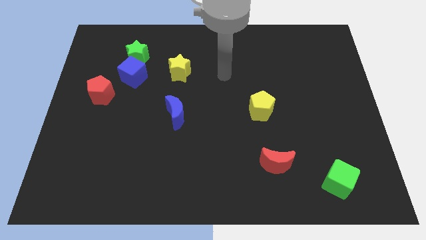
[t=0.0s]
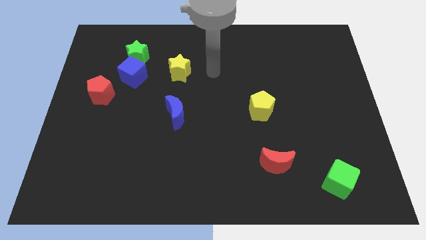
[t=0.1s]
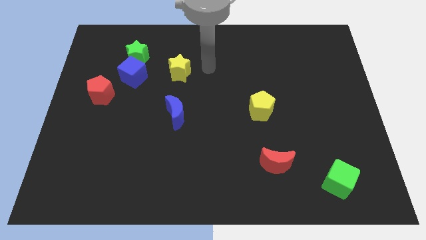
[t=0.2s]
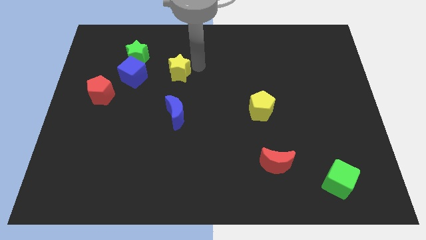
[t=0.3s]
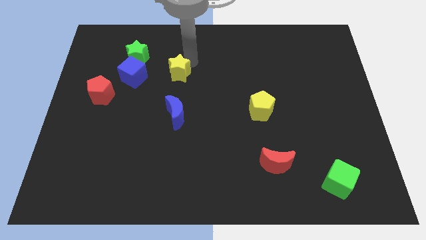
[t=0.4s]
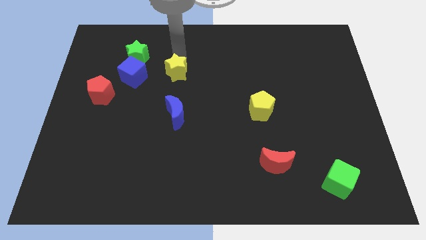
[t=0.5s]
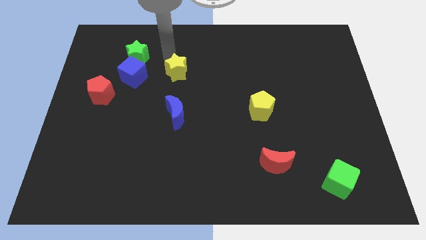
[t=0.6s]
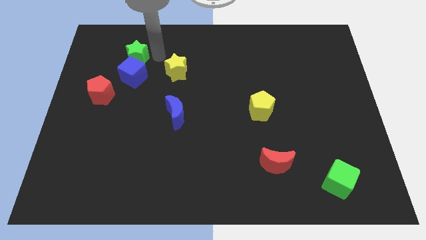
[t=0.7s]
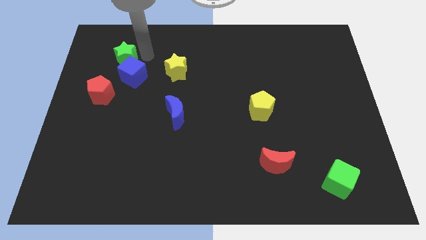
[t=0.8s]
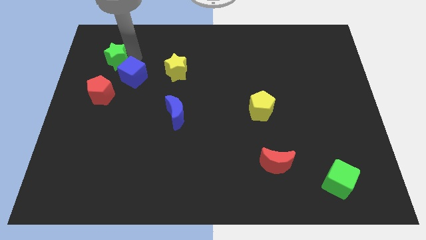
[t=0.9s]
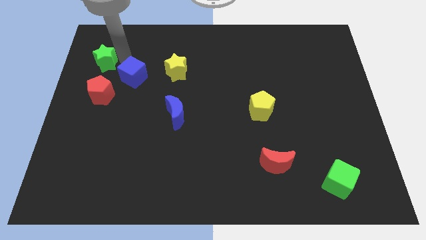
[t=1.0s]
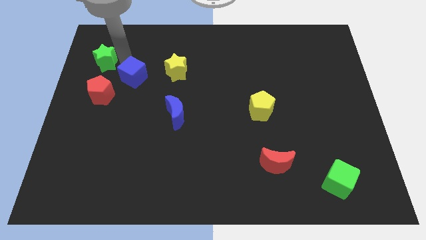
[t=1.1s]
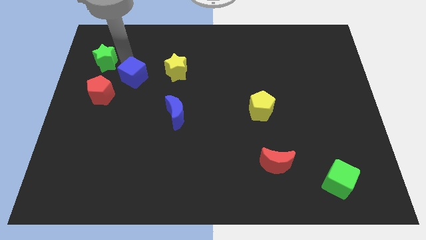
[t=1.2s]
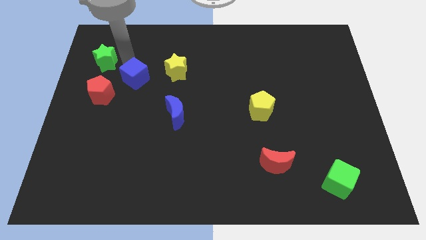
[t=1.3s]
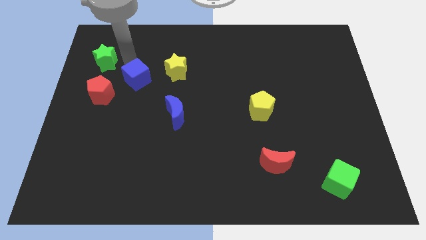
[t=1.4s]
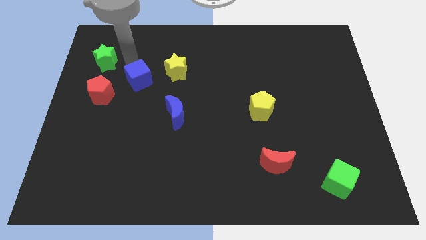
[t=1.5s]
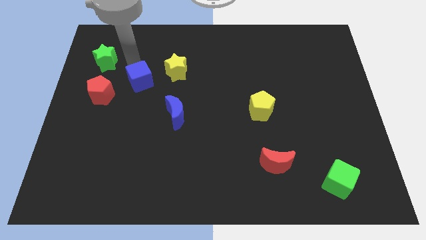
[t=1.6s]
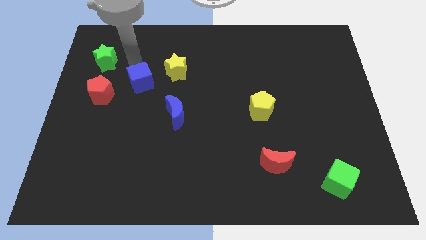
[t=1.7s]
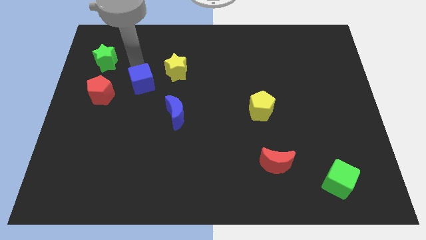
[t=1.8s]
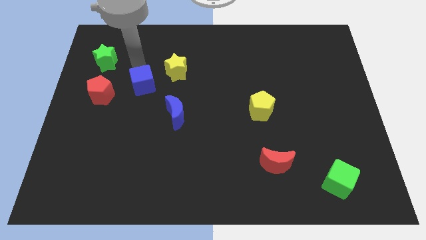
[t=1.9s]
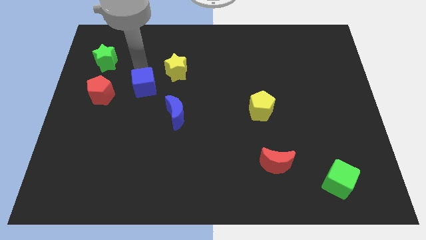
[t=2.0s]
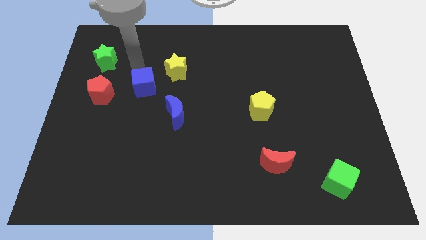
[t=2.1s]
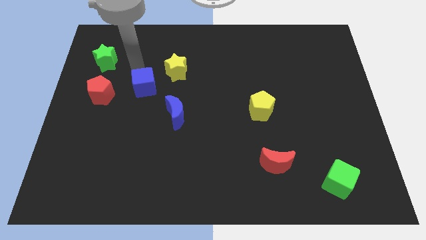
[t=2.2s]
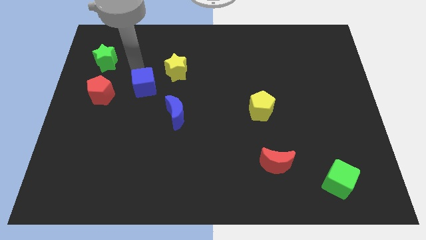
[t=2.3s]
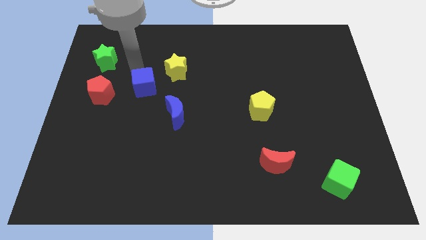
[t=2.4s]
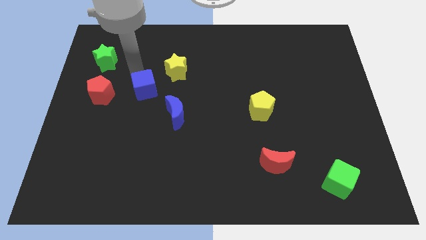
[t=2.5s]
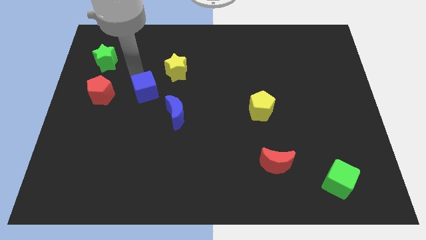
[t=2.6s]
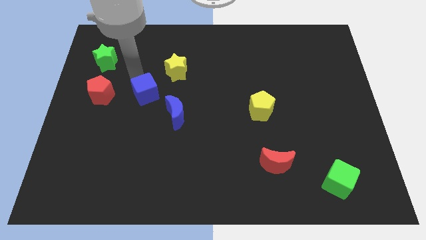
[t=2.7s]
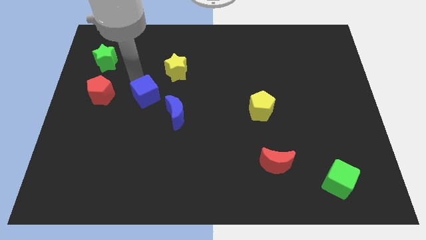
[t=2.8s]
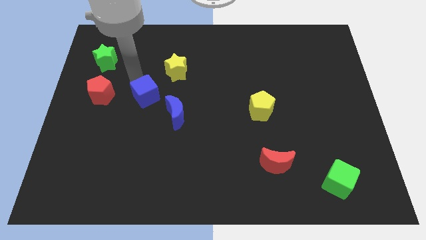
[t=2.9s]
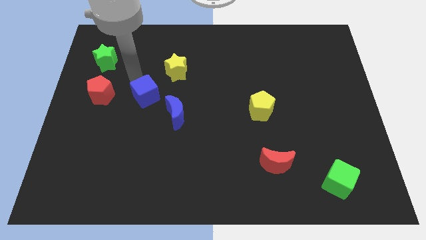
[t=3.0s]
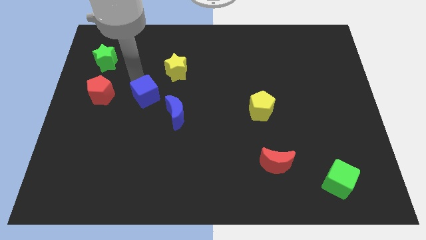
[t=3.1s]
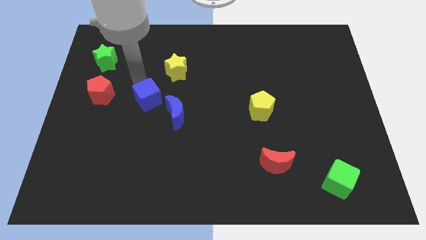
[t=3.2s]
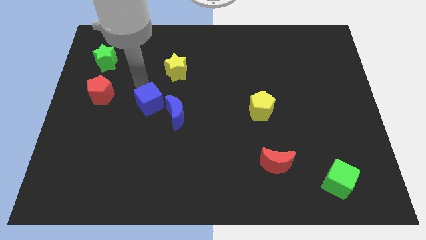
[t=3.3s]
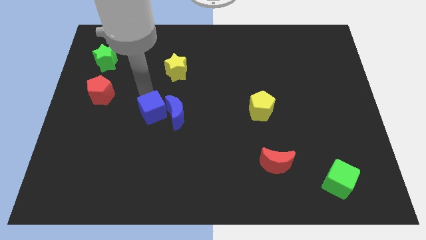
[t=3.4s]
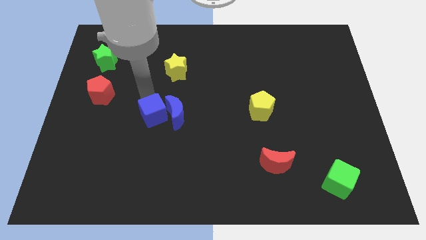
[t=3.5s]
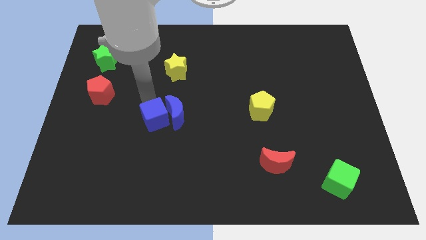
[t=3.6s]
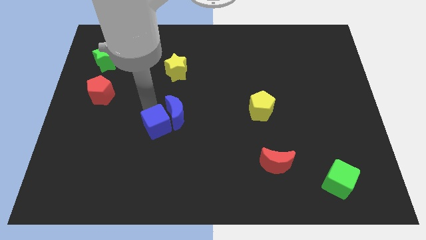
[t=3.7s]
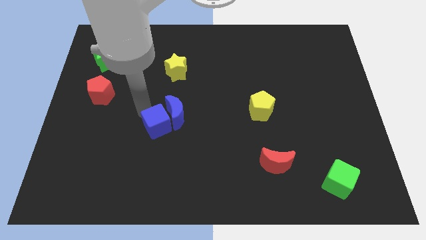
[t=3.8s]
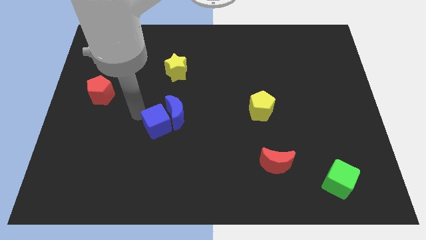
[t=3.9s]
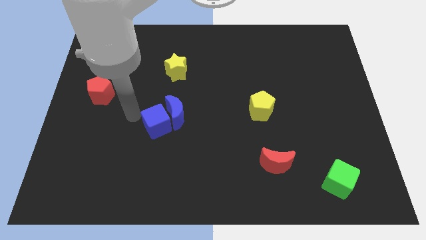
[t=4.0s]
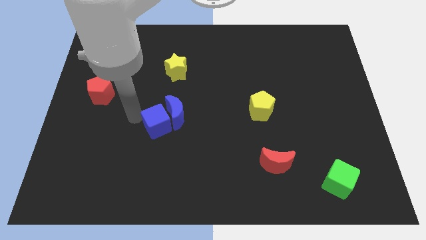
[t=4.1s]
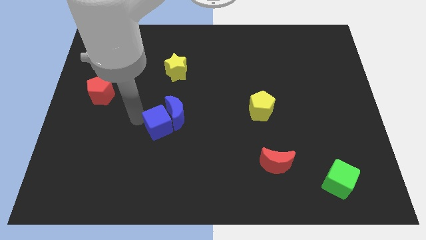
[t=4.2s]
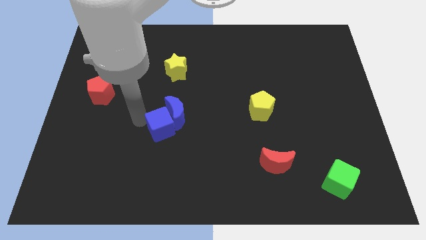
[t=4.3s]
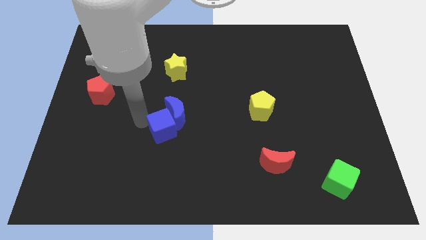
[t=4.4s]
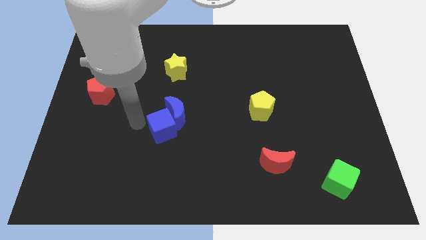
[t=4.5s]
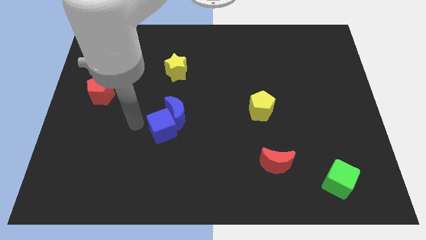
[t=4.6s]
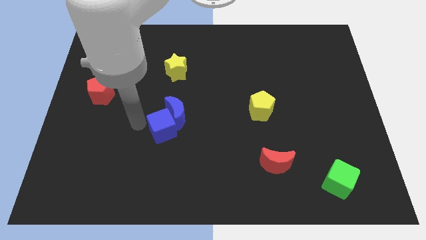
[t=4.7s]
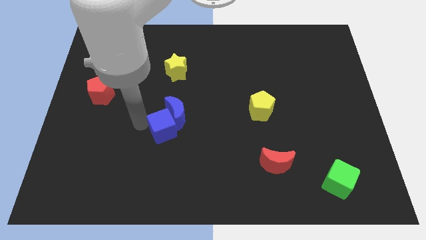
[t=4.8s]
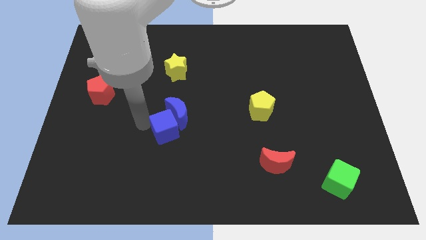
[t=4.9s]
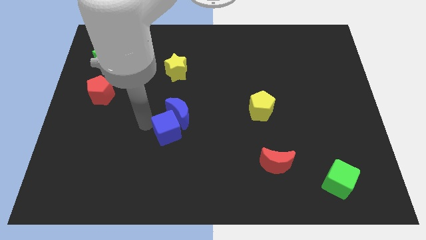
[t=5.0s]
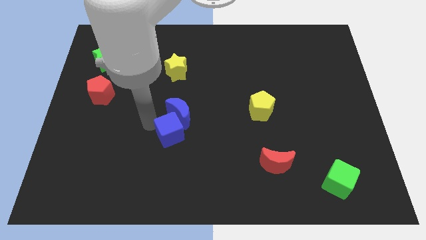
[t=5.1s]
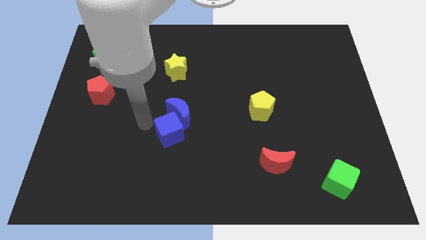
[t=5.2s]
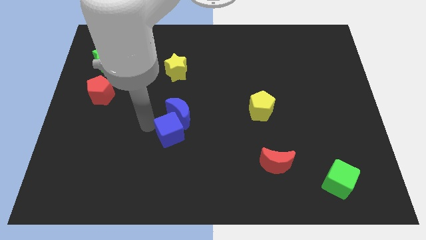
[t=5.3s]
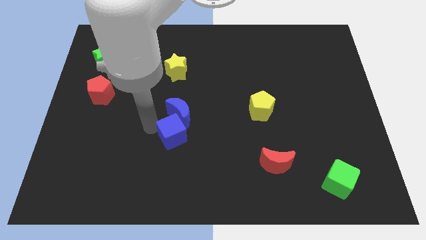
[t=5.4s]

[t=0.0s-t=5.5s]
push the blue cube diagonally downwards and to the right

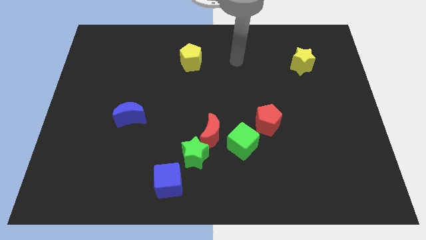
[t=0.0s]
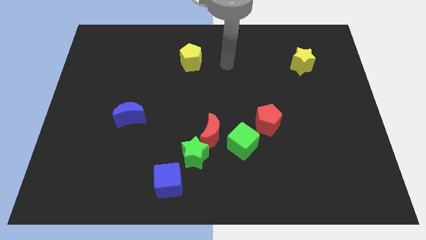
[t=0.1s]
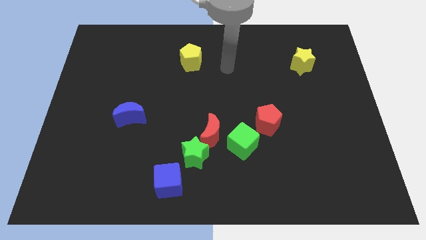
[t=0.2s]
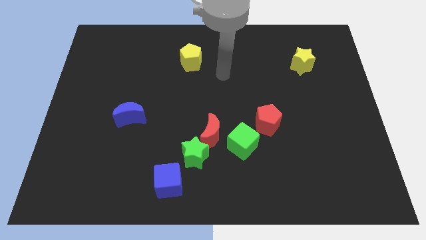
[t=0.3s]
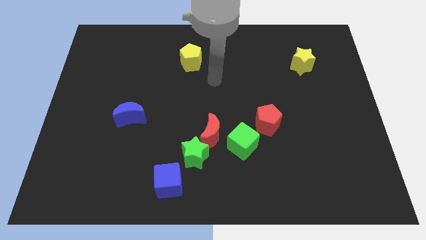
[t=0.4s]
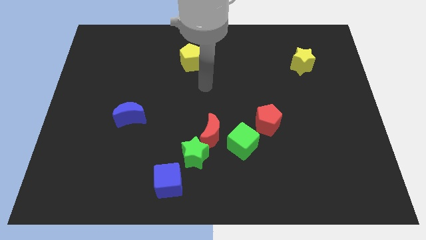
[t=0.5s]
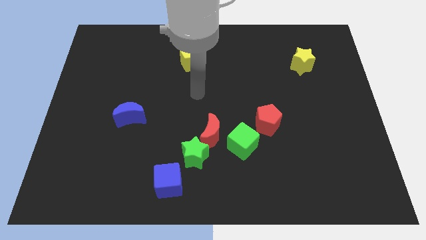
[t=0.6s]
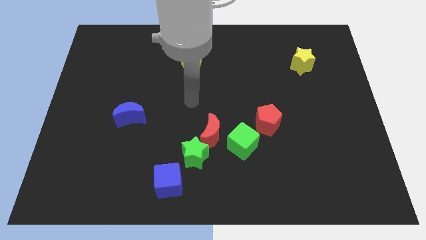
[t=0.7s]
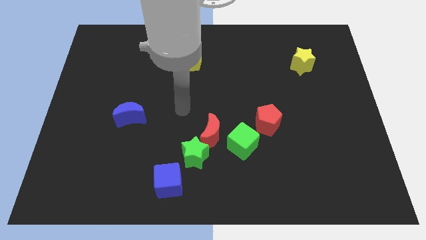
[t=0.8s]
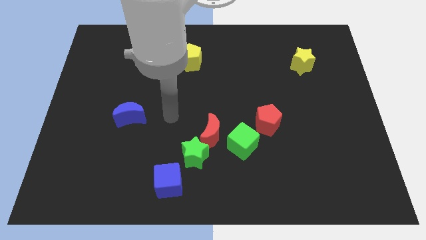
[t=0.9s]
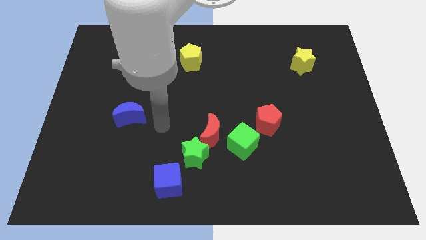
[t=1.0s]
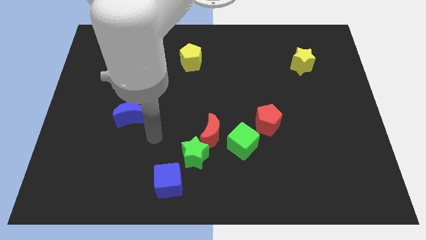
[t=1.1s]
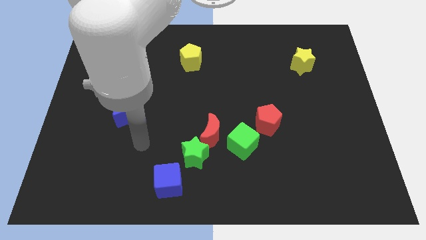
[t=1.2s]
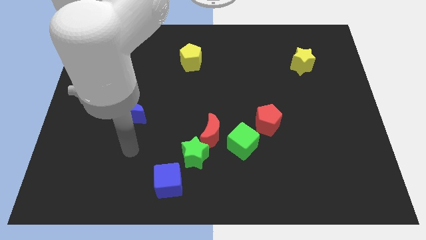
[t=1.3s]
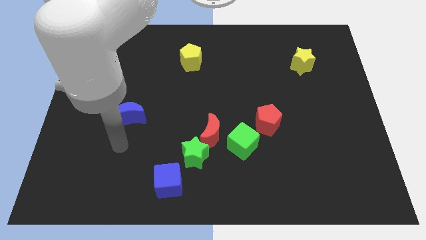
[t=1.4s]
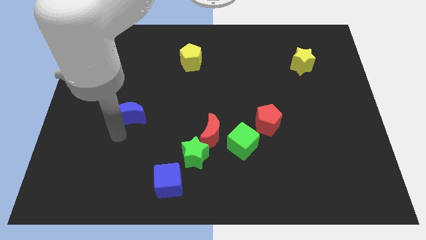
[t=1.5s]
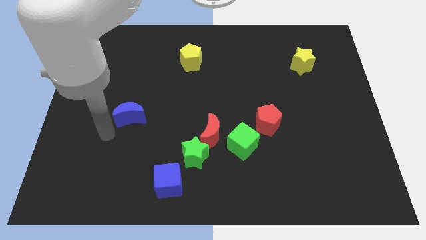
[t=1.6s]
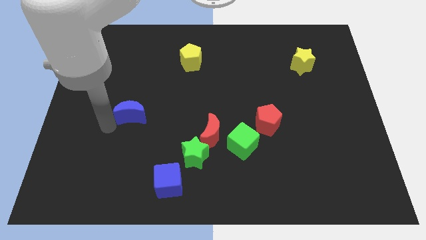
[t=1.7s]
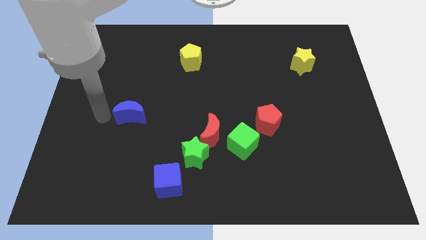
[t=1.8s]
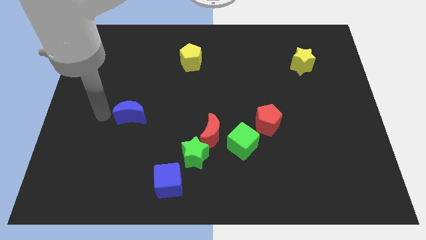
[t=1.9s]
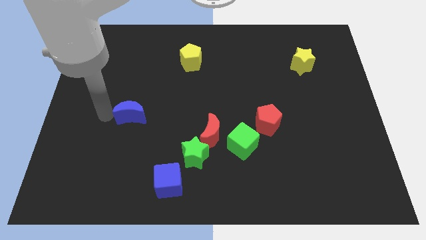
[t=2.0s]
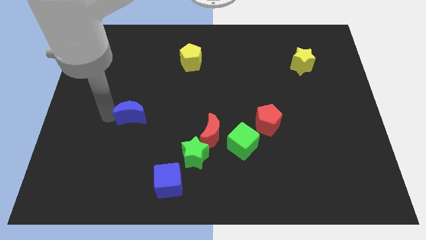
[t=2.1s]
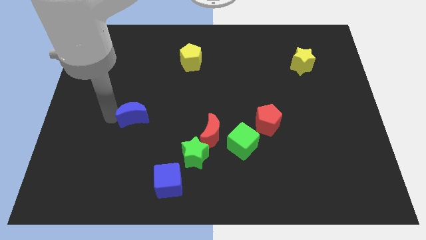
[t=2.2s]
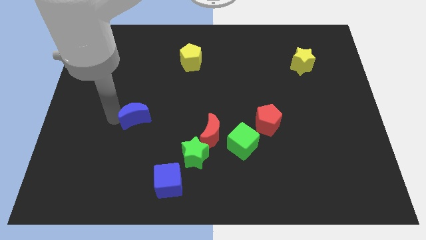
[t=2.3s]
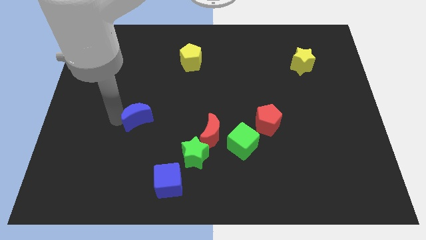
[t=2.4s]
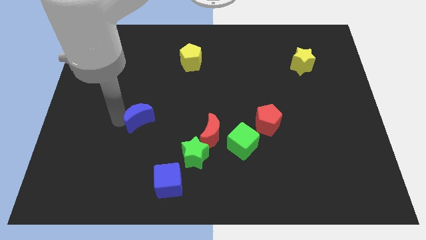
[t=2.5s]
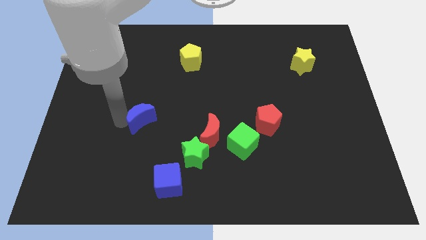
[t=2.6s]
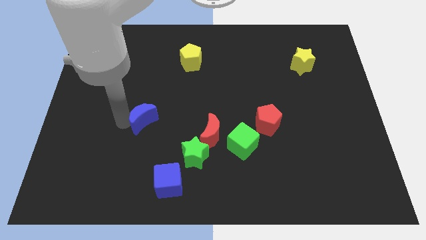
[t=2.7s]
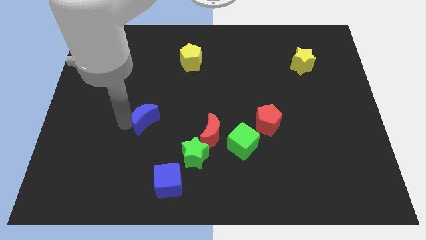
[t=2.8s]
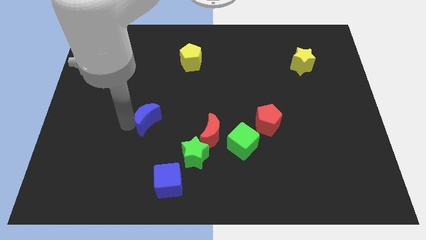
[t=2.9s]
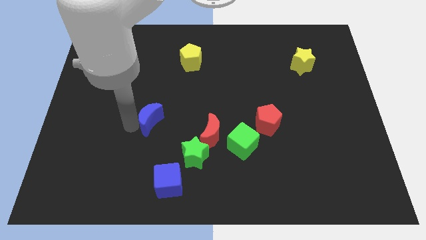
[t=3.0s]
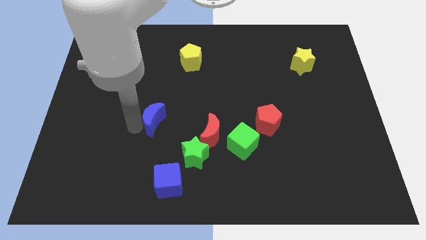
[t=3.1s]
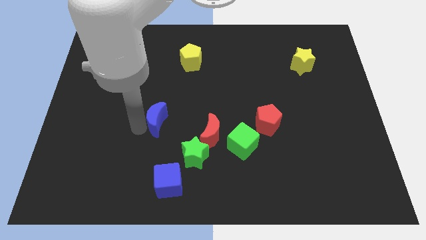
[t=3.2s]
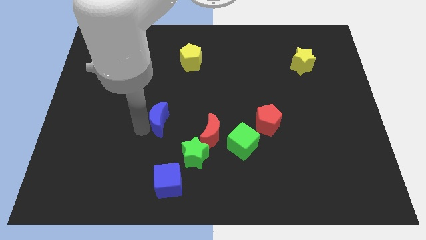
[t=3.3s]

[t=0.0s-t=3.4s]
slightly slide the blue moon to the right
